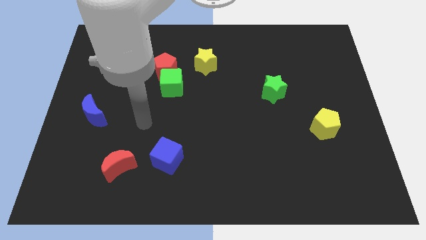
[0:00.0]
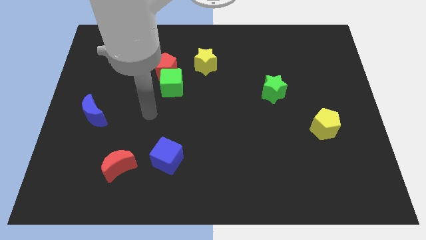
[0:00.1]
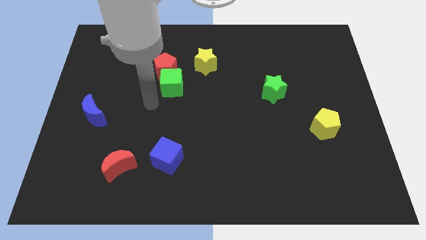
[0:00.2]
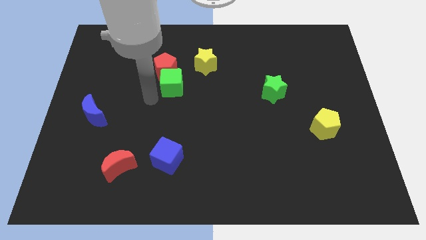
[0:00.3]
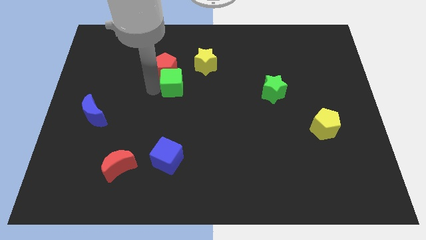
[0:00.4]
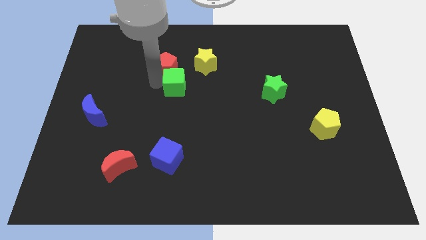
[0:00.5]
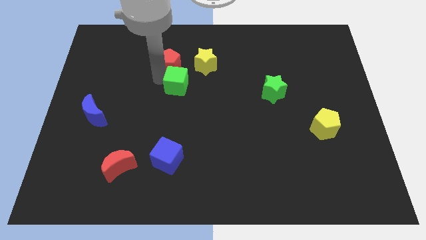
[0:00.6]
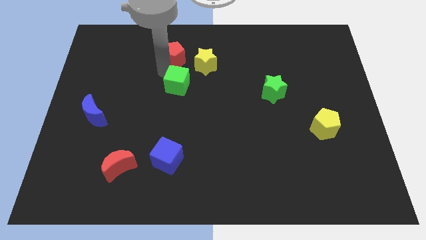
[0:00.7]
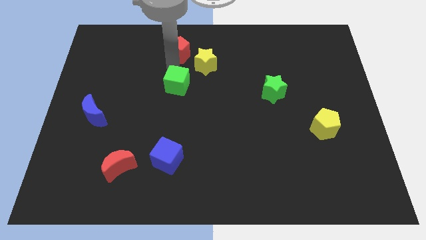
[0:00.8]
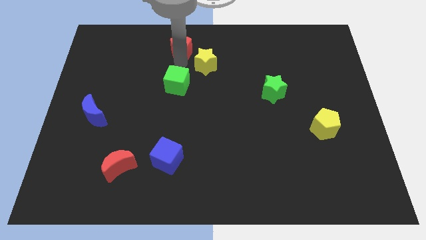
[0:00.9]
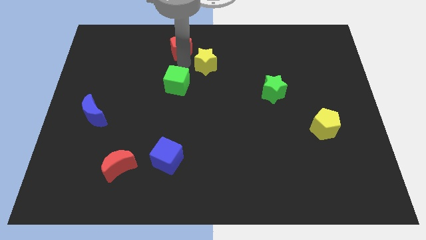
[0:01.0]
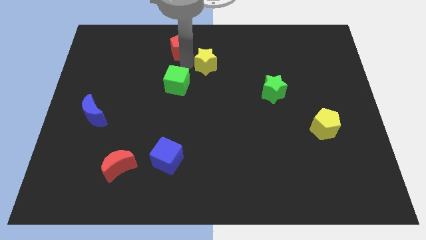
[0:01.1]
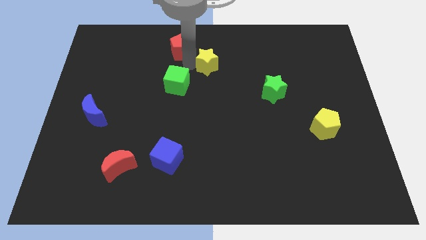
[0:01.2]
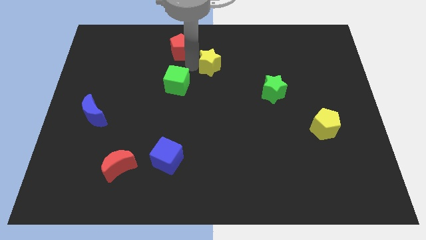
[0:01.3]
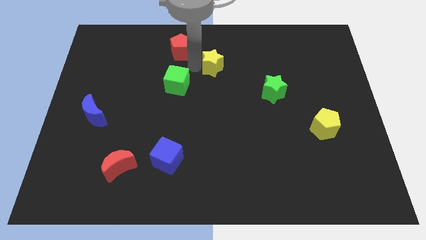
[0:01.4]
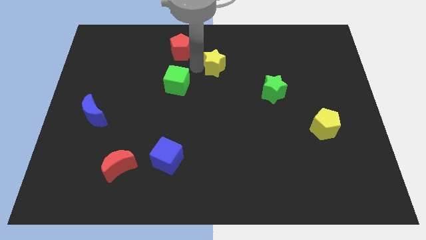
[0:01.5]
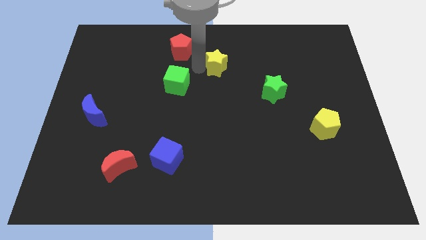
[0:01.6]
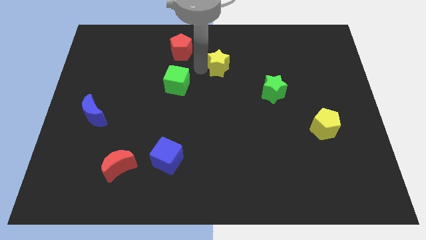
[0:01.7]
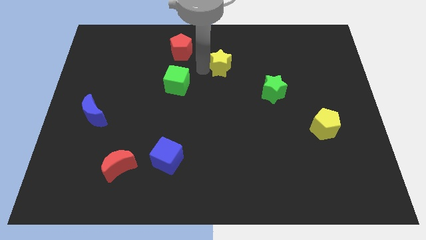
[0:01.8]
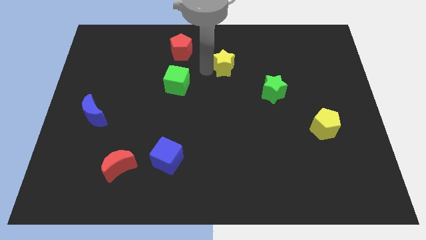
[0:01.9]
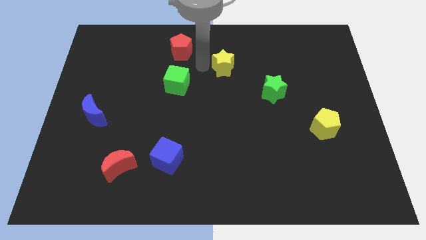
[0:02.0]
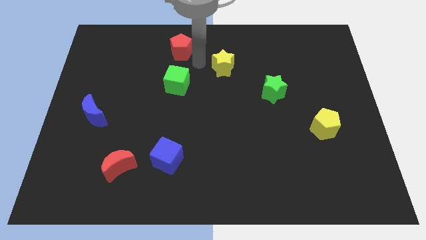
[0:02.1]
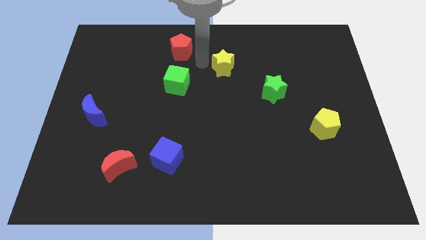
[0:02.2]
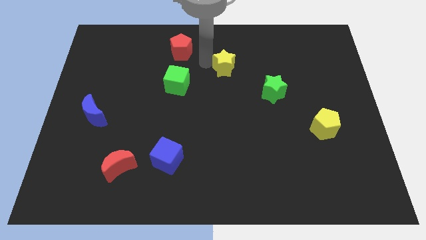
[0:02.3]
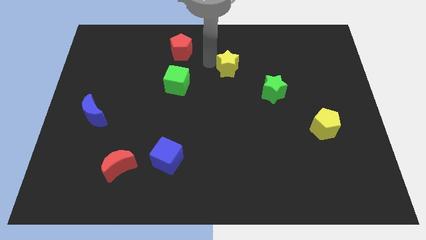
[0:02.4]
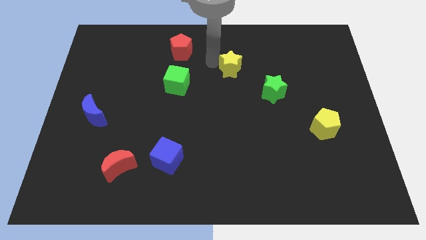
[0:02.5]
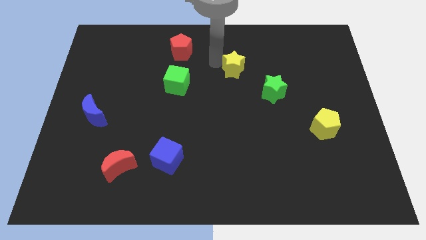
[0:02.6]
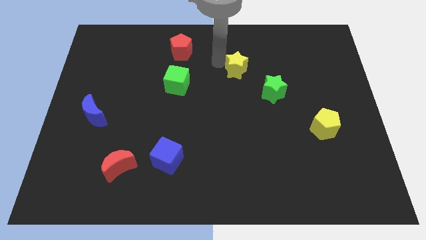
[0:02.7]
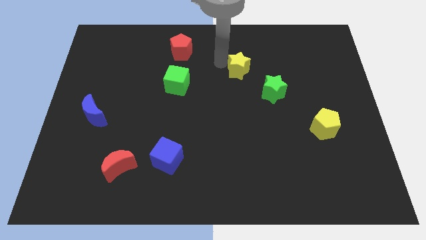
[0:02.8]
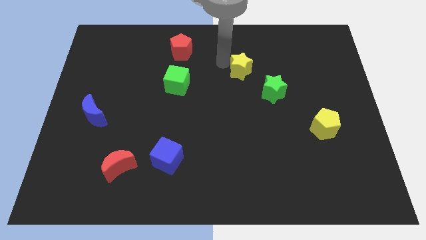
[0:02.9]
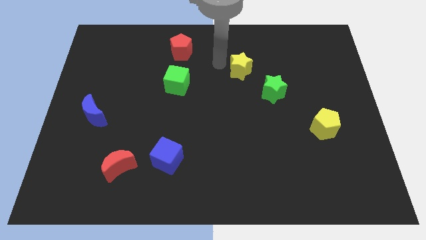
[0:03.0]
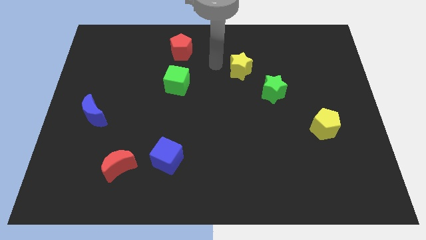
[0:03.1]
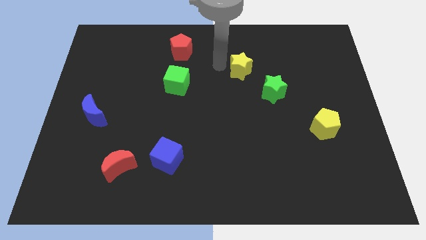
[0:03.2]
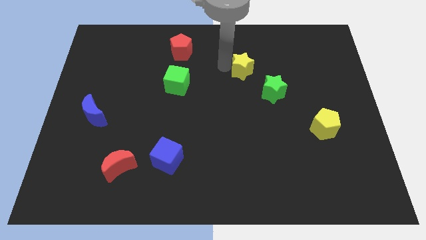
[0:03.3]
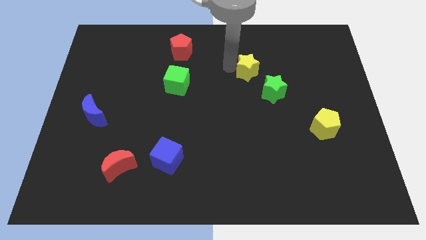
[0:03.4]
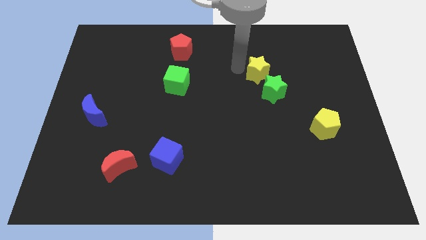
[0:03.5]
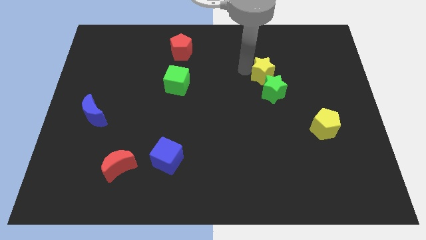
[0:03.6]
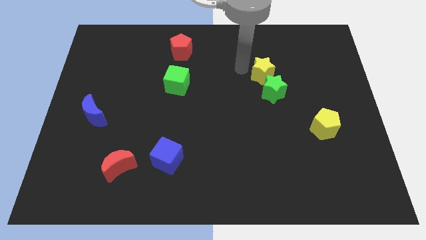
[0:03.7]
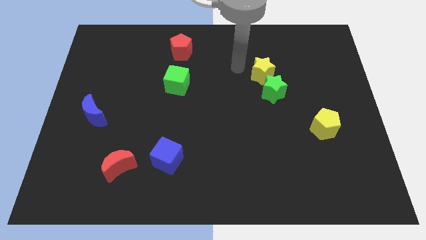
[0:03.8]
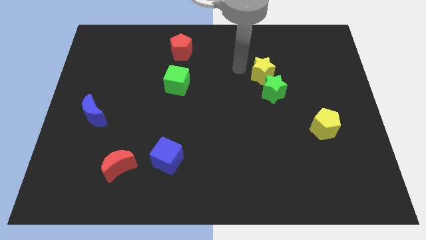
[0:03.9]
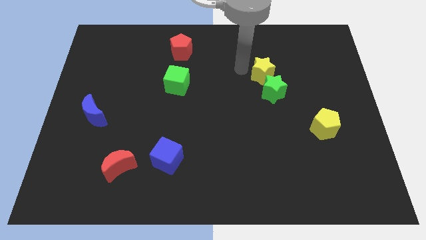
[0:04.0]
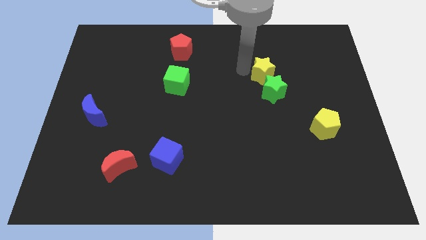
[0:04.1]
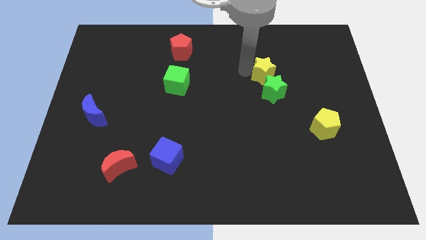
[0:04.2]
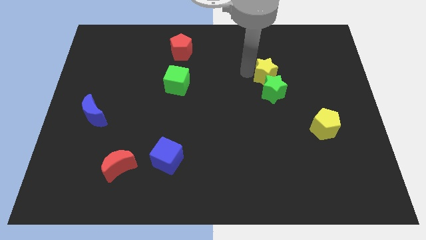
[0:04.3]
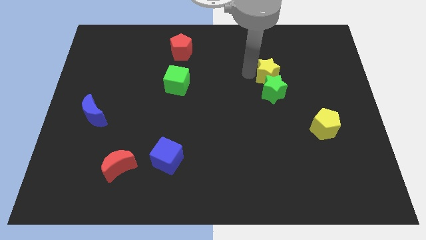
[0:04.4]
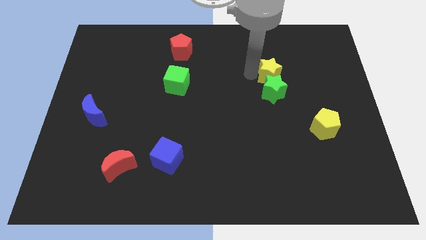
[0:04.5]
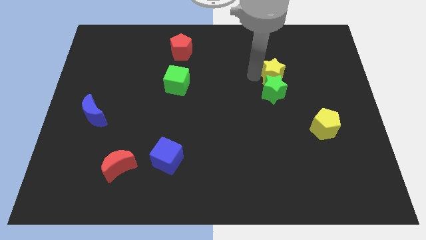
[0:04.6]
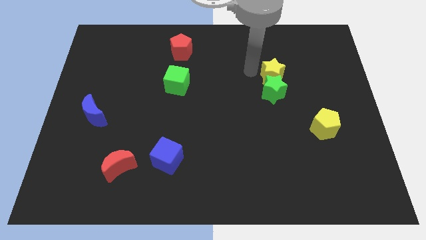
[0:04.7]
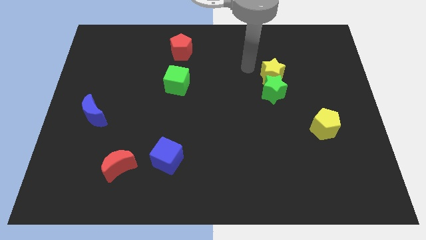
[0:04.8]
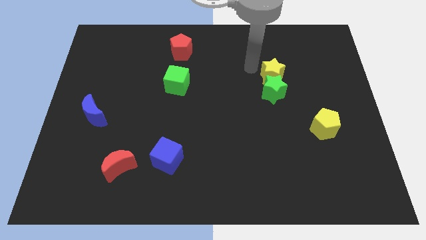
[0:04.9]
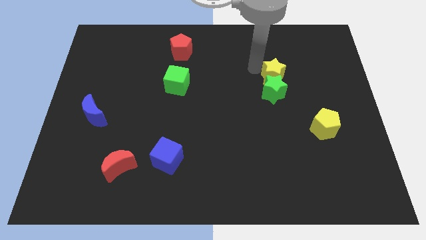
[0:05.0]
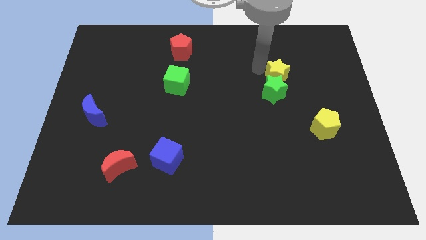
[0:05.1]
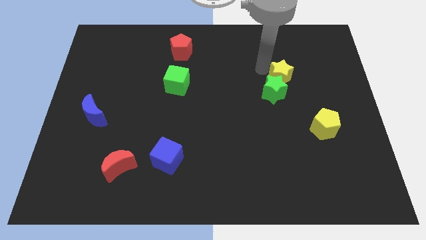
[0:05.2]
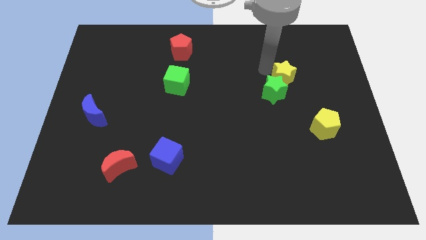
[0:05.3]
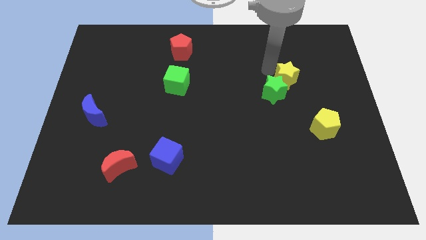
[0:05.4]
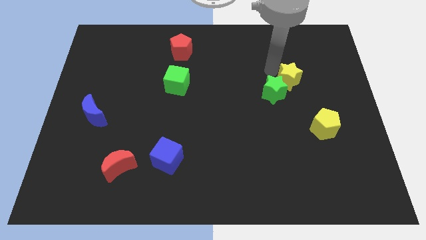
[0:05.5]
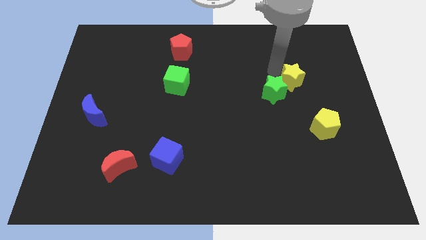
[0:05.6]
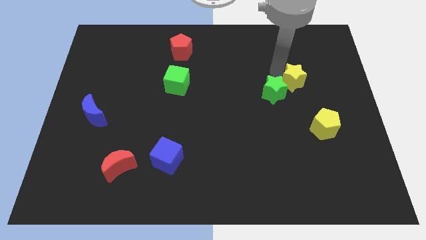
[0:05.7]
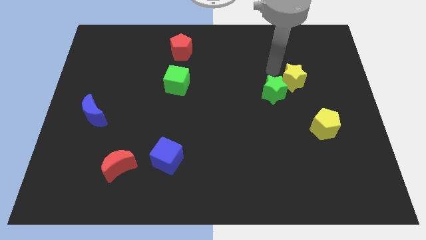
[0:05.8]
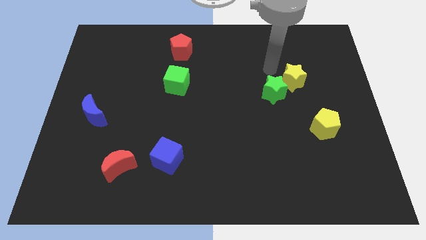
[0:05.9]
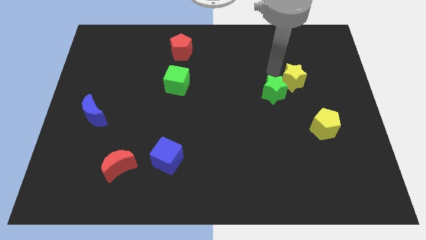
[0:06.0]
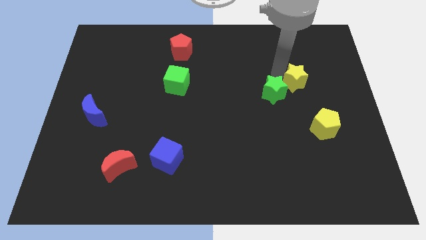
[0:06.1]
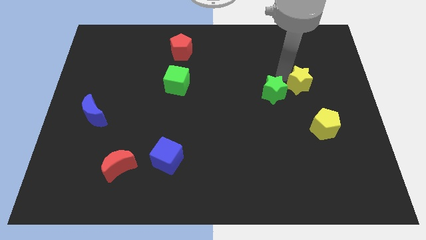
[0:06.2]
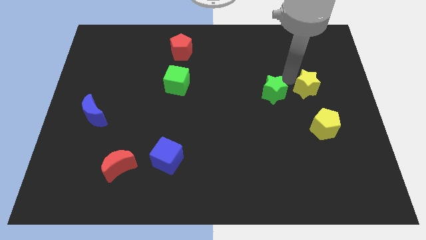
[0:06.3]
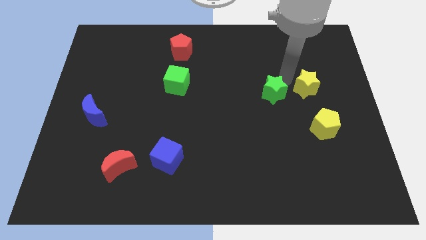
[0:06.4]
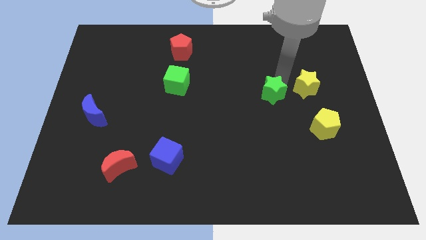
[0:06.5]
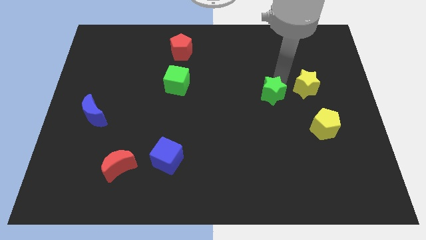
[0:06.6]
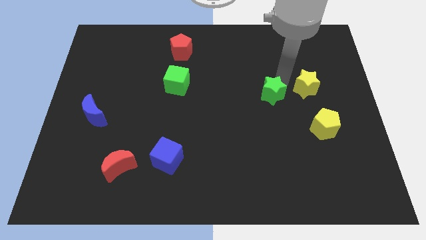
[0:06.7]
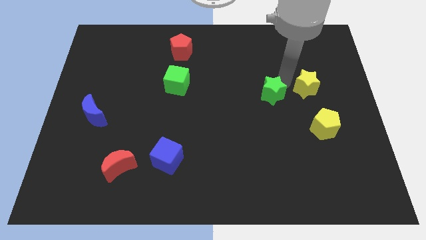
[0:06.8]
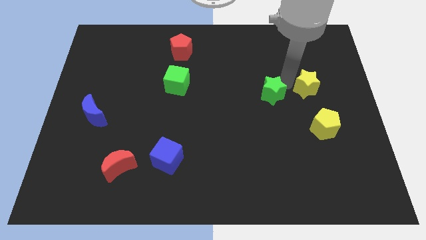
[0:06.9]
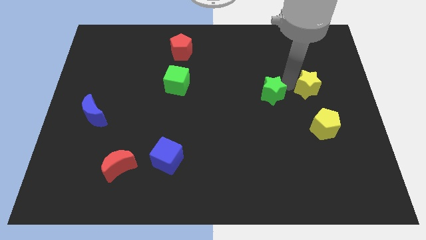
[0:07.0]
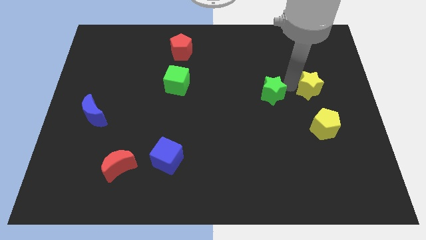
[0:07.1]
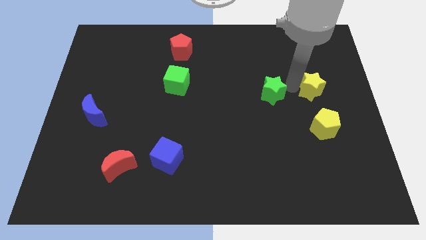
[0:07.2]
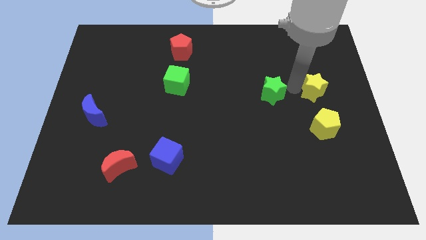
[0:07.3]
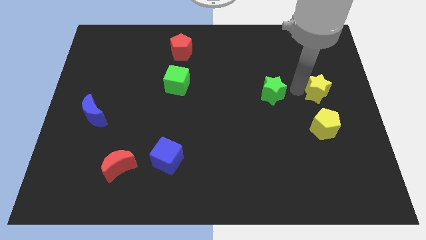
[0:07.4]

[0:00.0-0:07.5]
move the yellow star to the right side of the board
